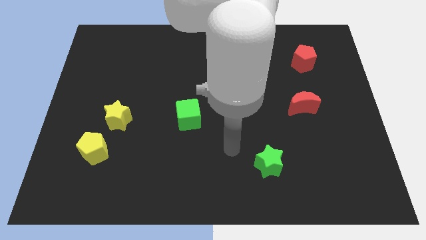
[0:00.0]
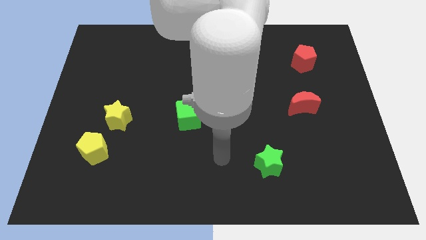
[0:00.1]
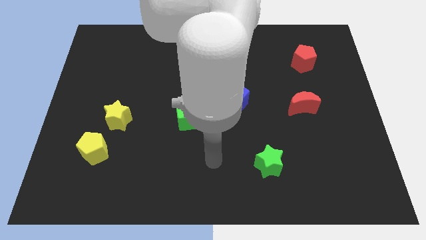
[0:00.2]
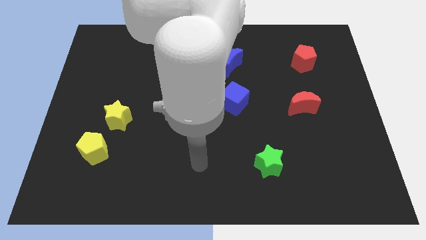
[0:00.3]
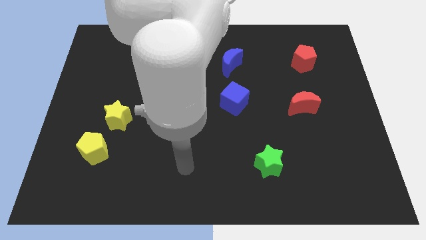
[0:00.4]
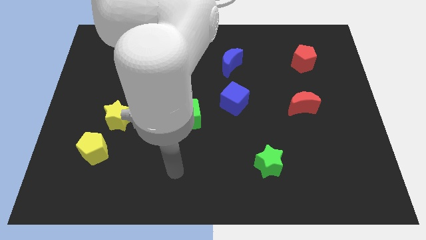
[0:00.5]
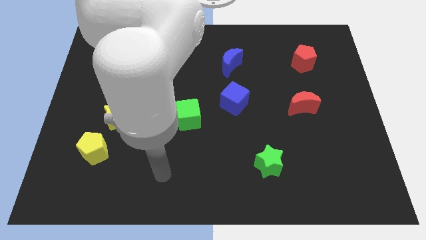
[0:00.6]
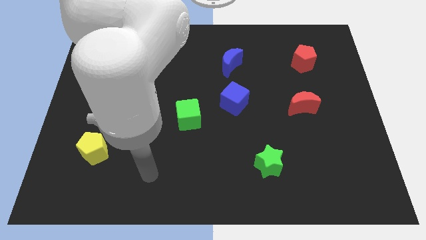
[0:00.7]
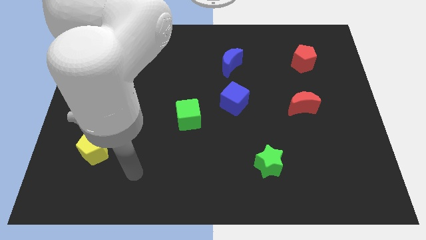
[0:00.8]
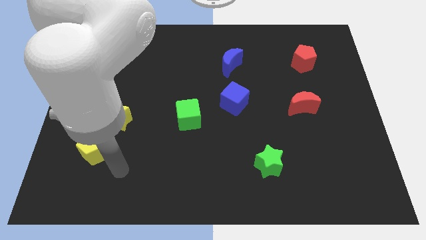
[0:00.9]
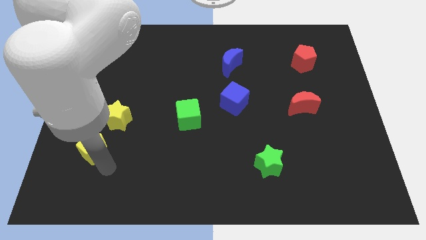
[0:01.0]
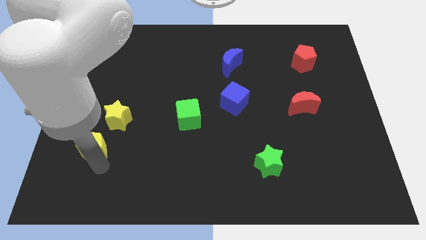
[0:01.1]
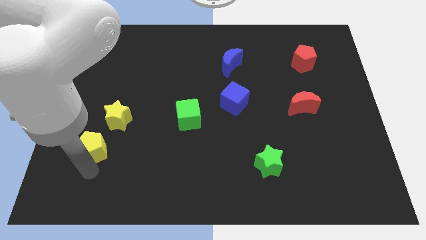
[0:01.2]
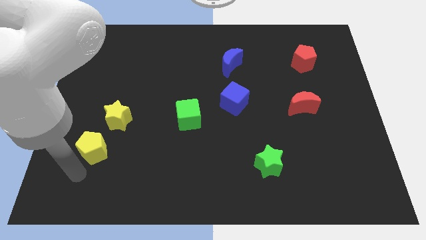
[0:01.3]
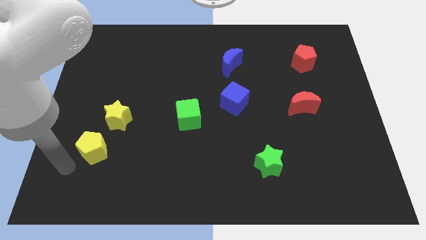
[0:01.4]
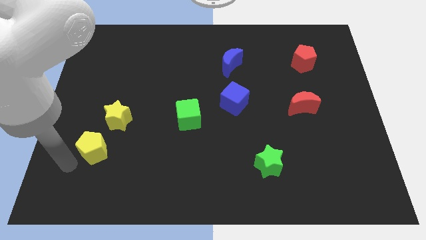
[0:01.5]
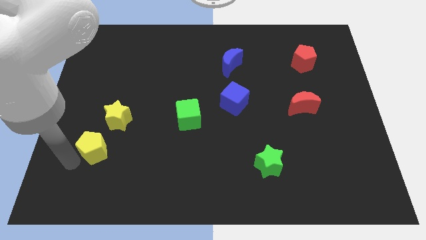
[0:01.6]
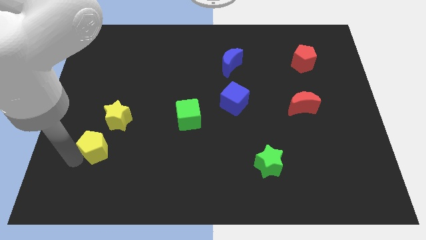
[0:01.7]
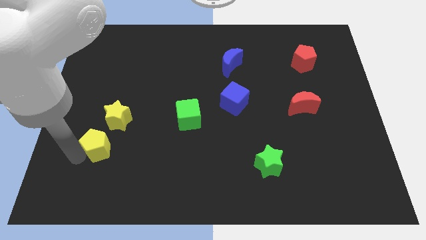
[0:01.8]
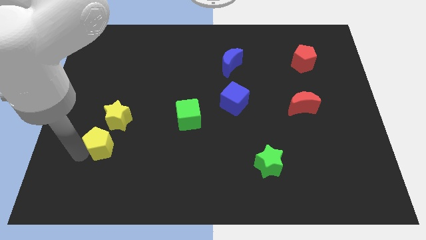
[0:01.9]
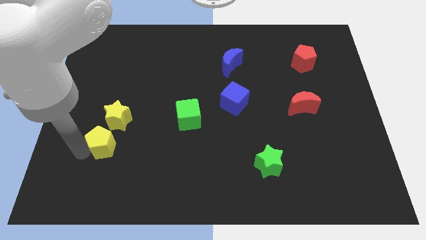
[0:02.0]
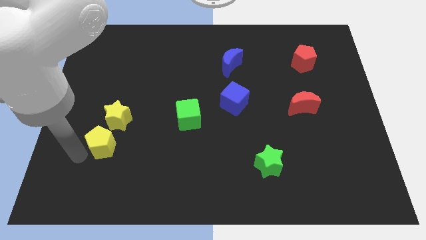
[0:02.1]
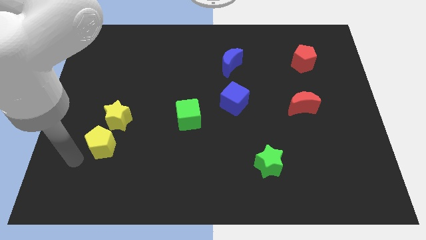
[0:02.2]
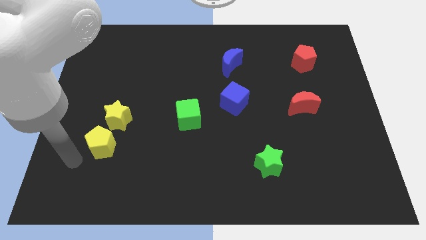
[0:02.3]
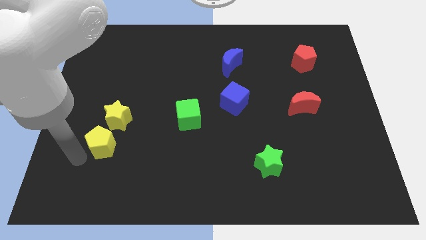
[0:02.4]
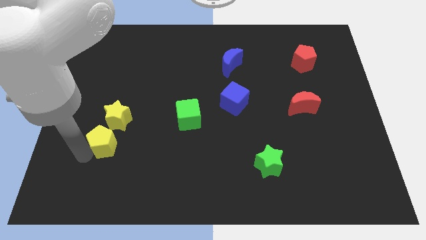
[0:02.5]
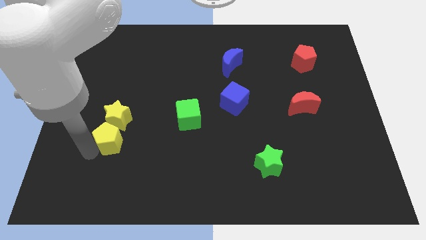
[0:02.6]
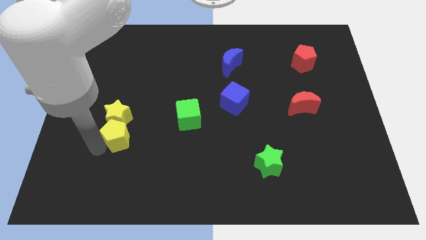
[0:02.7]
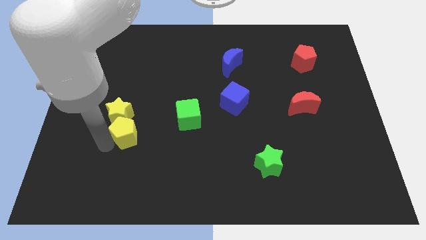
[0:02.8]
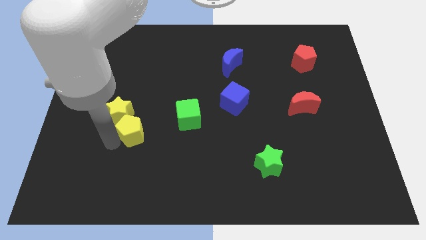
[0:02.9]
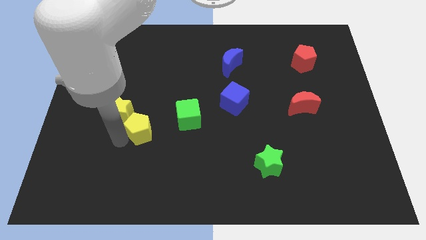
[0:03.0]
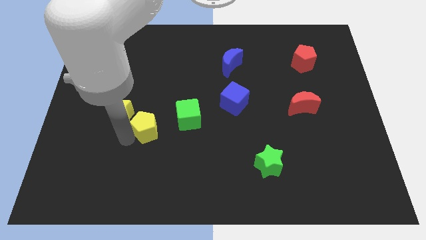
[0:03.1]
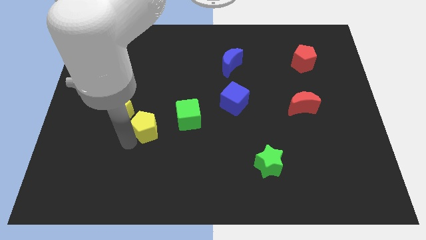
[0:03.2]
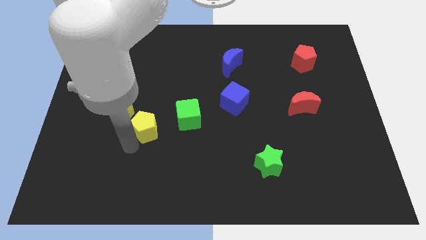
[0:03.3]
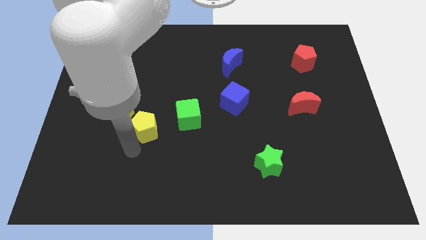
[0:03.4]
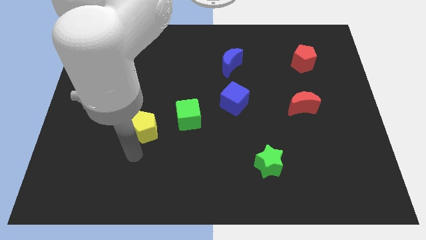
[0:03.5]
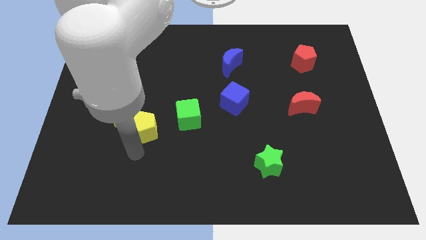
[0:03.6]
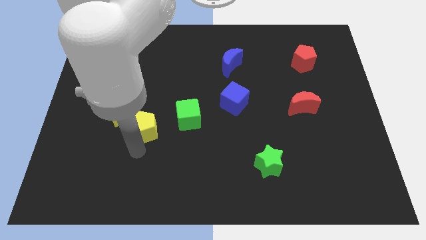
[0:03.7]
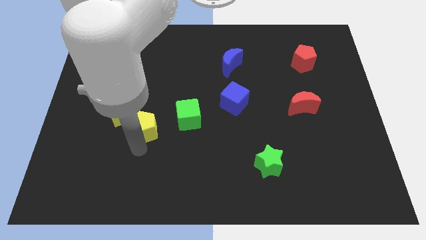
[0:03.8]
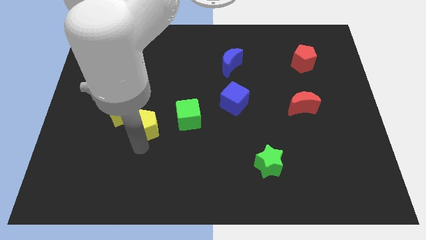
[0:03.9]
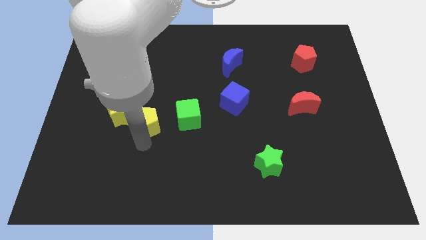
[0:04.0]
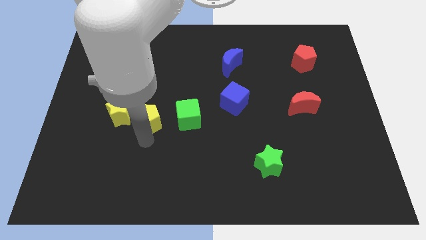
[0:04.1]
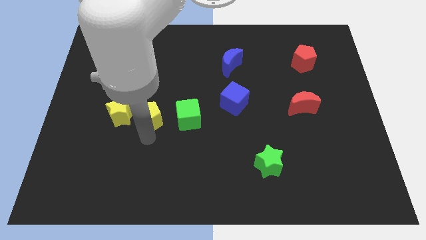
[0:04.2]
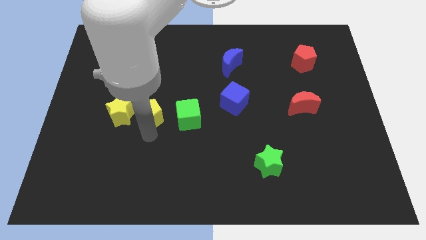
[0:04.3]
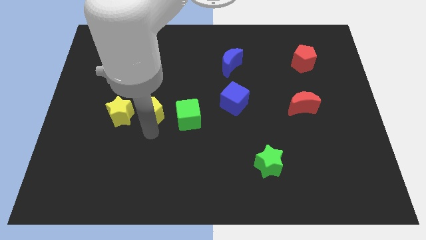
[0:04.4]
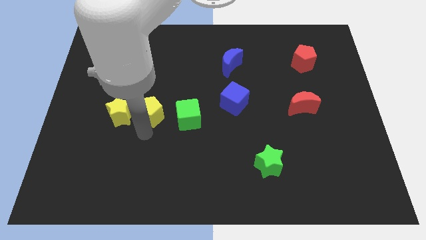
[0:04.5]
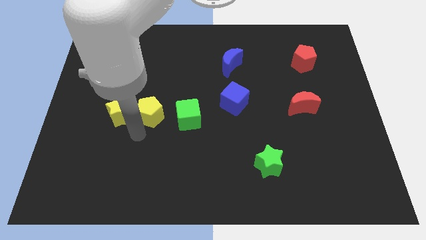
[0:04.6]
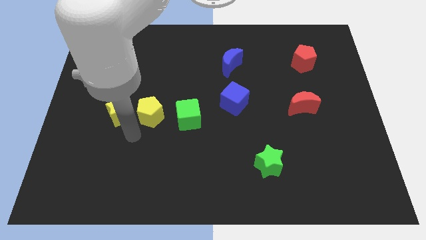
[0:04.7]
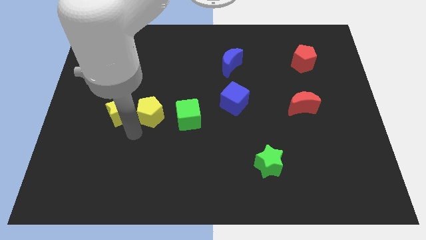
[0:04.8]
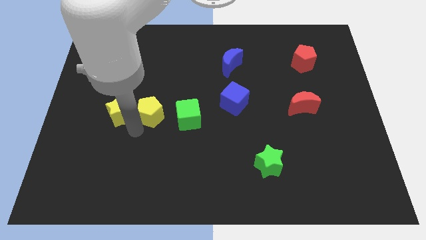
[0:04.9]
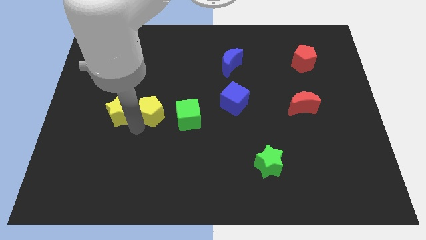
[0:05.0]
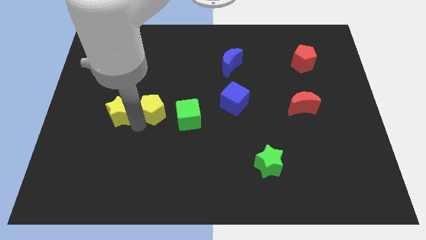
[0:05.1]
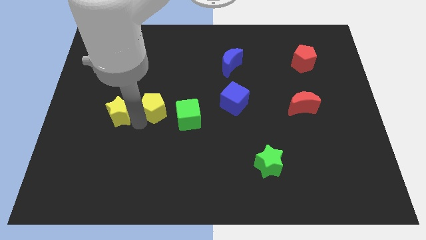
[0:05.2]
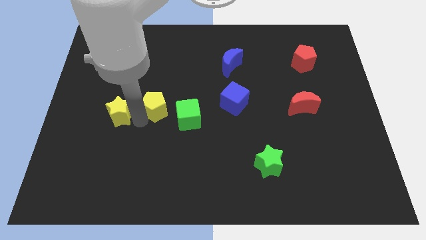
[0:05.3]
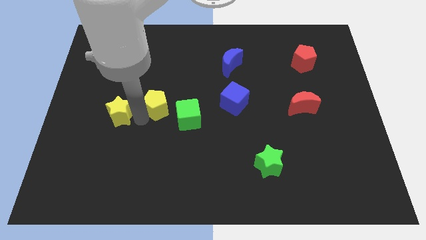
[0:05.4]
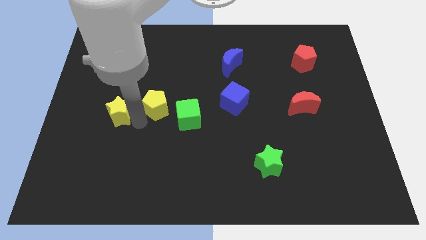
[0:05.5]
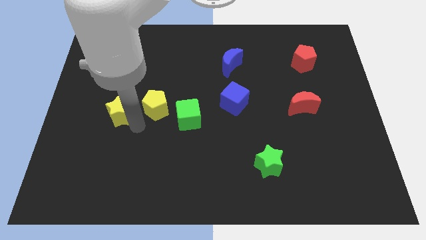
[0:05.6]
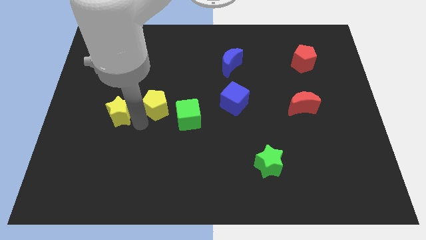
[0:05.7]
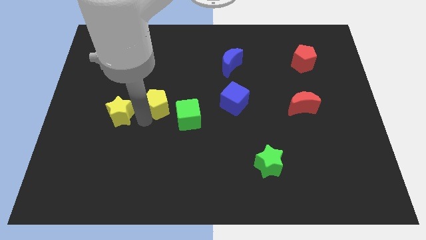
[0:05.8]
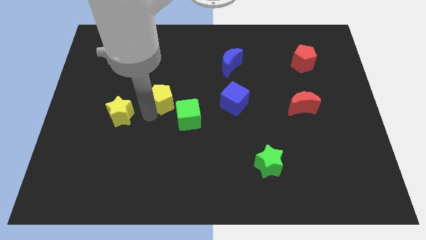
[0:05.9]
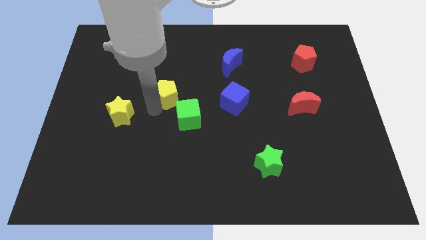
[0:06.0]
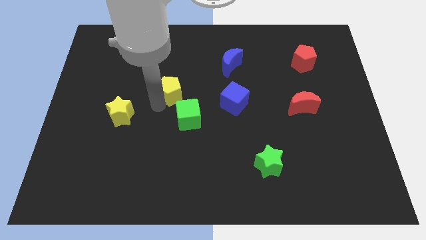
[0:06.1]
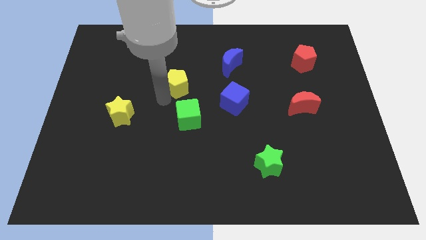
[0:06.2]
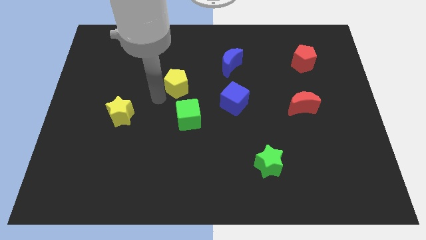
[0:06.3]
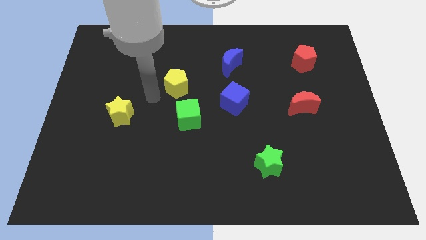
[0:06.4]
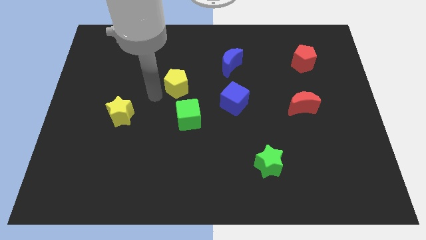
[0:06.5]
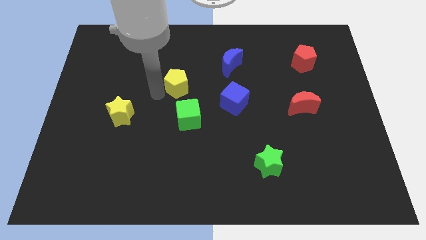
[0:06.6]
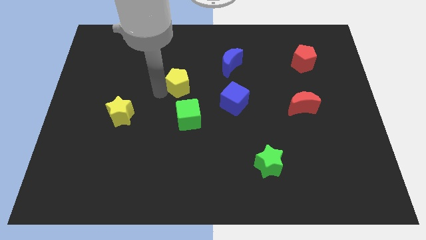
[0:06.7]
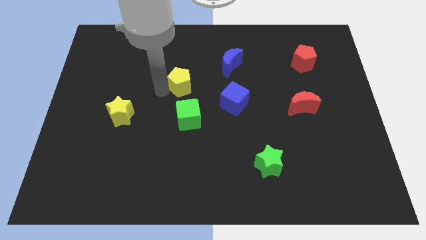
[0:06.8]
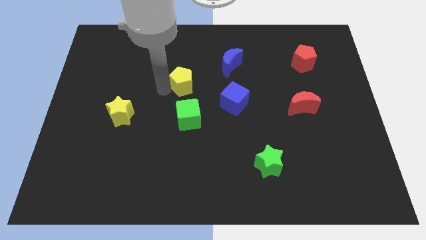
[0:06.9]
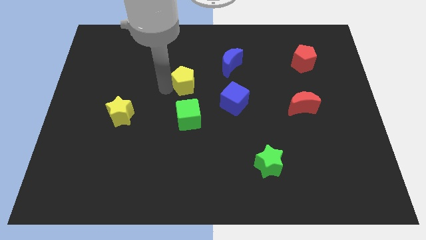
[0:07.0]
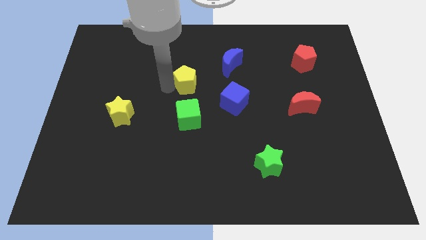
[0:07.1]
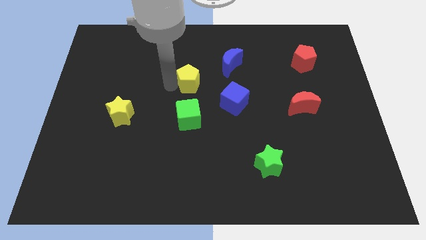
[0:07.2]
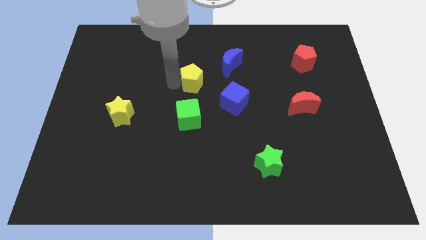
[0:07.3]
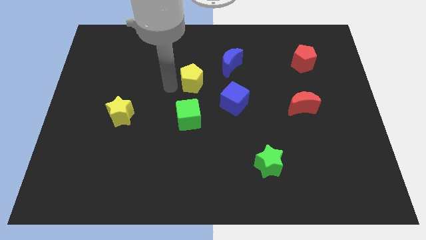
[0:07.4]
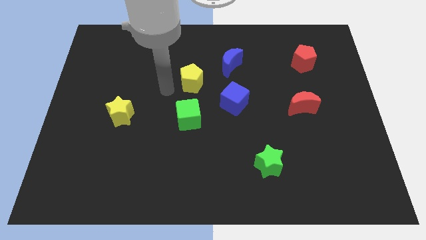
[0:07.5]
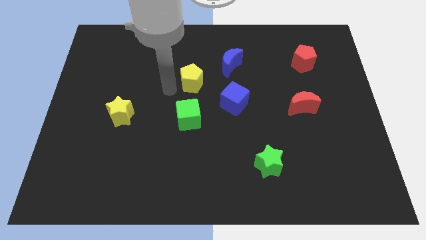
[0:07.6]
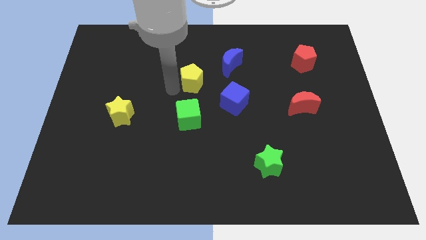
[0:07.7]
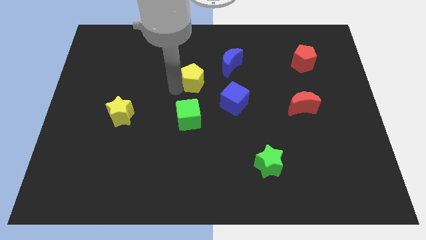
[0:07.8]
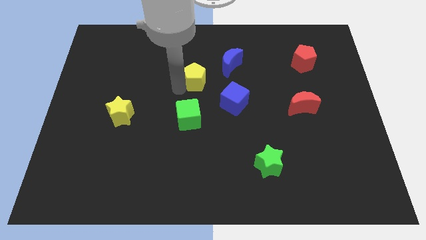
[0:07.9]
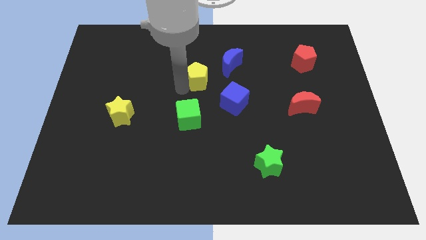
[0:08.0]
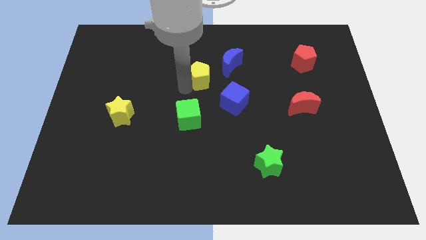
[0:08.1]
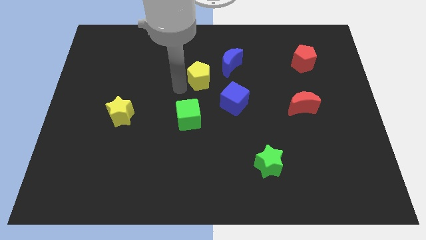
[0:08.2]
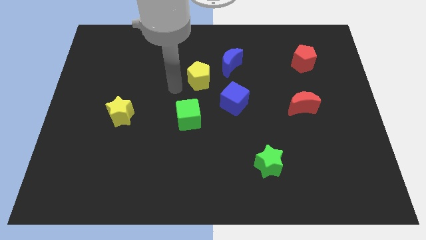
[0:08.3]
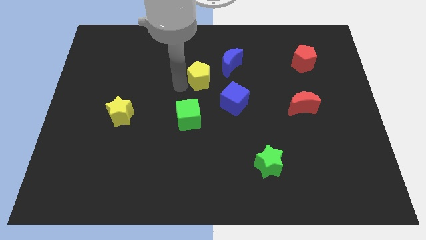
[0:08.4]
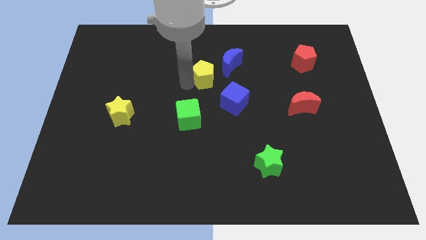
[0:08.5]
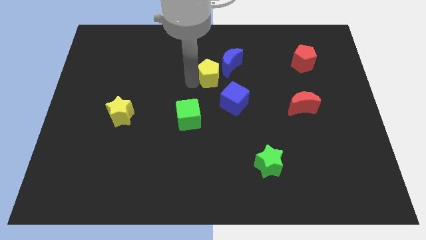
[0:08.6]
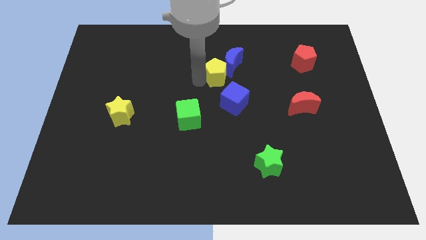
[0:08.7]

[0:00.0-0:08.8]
move the yellow pentagon to the blue moon
